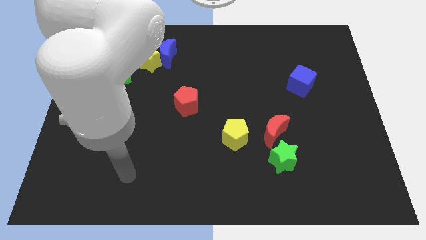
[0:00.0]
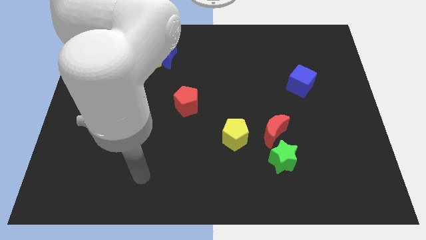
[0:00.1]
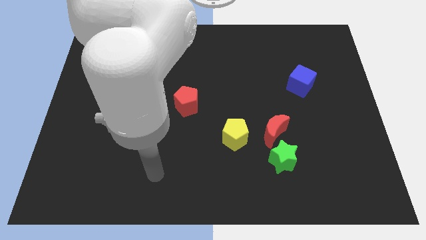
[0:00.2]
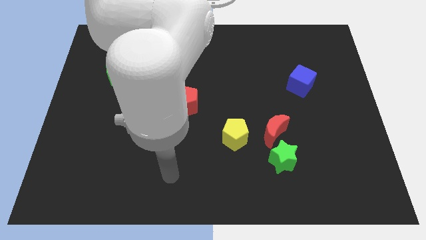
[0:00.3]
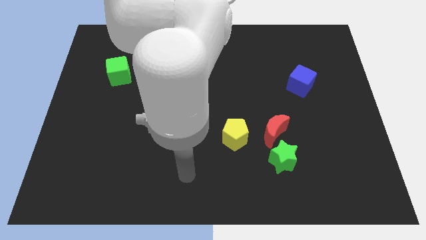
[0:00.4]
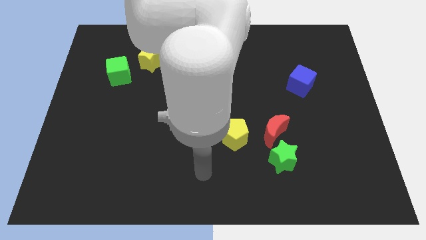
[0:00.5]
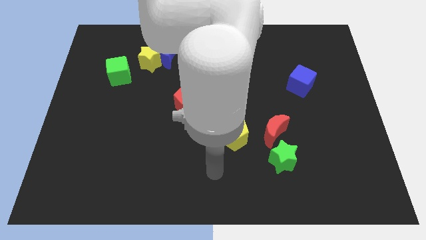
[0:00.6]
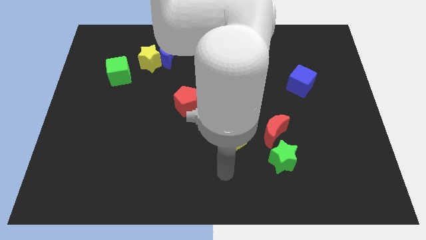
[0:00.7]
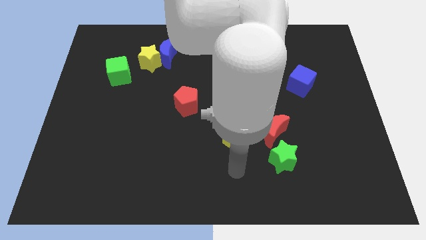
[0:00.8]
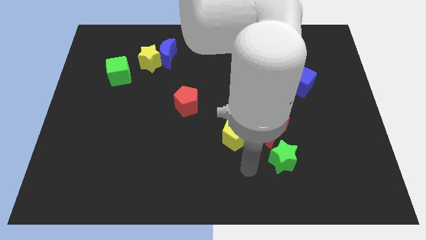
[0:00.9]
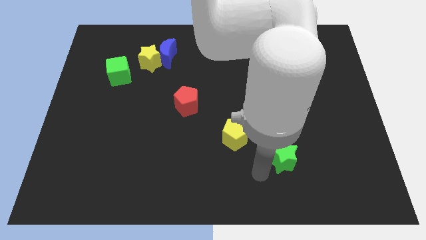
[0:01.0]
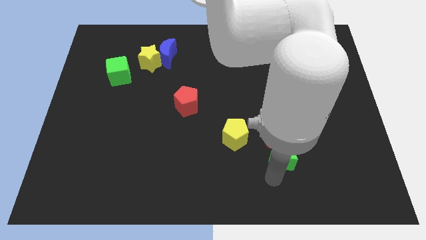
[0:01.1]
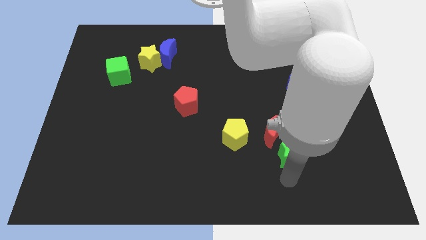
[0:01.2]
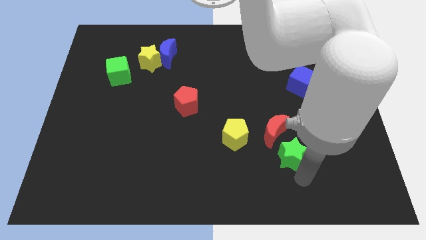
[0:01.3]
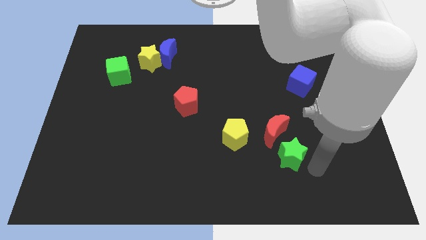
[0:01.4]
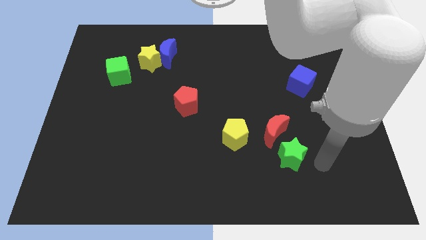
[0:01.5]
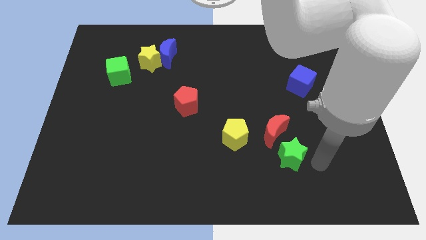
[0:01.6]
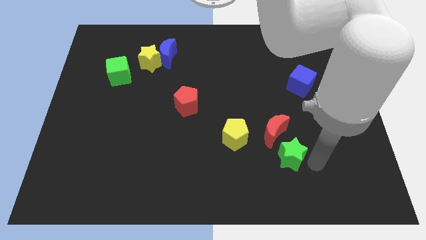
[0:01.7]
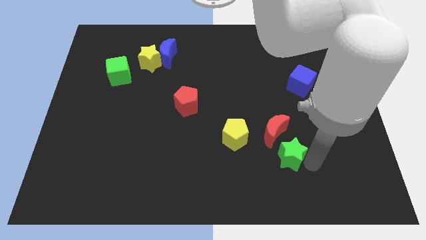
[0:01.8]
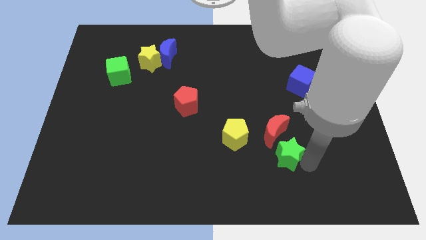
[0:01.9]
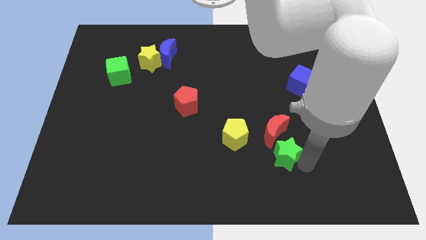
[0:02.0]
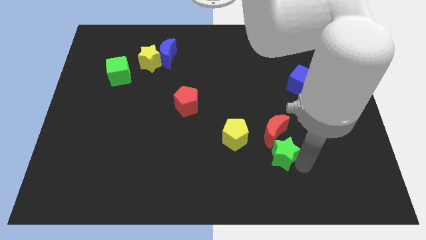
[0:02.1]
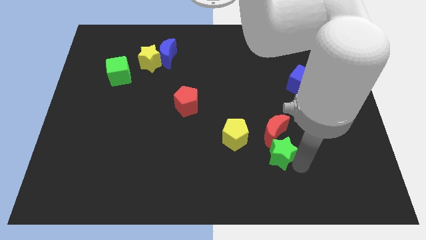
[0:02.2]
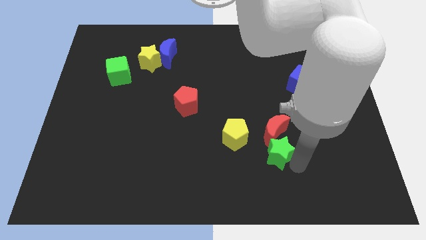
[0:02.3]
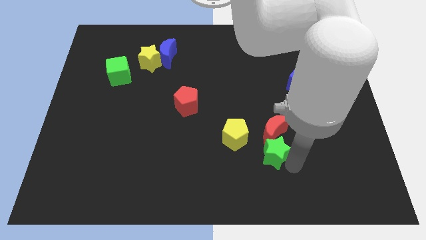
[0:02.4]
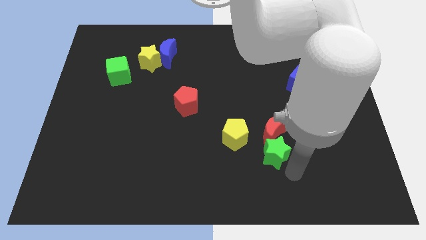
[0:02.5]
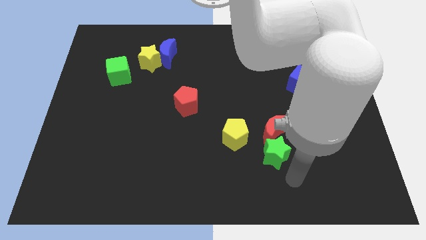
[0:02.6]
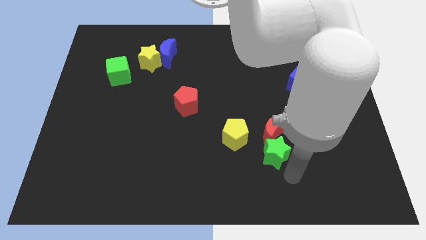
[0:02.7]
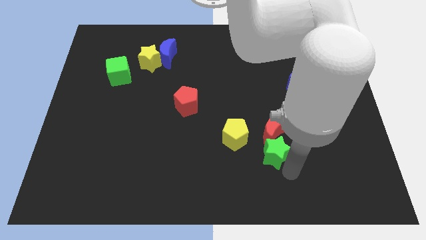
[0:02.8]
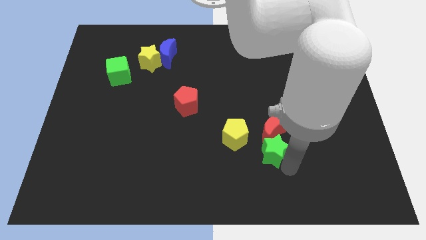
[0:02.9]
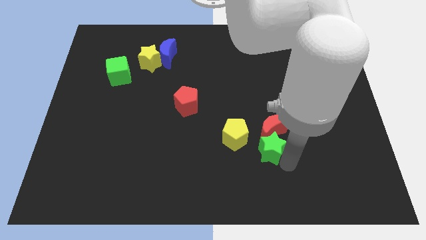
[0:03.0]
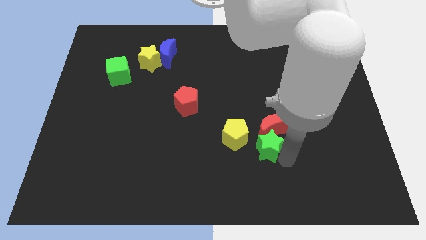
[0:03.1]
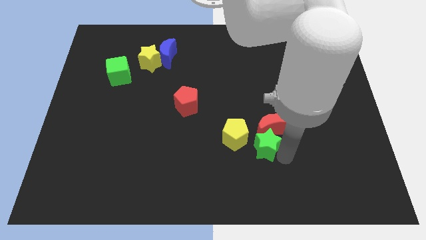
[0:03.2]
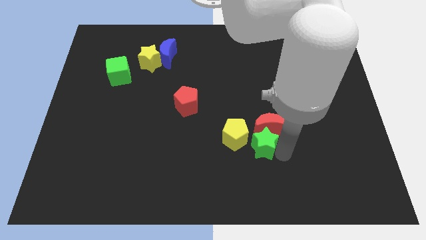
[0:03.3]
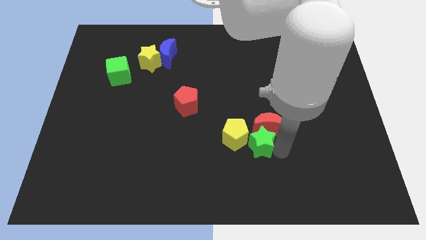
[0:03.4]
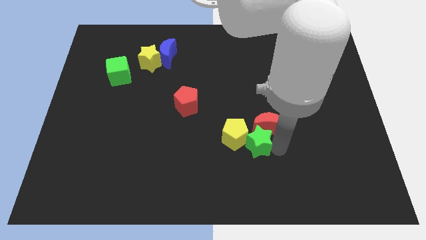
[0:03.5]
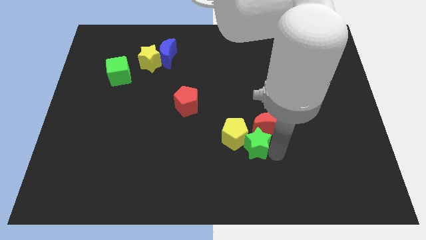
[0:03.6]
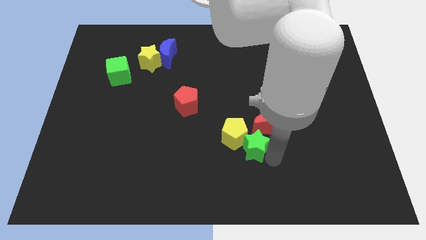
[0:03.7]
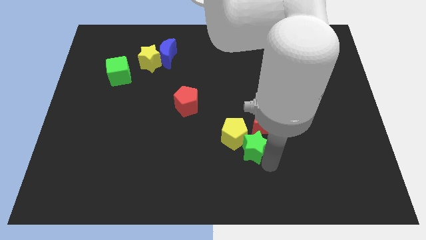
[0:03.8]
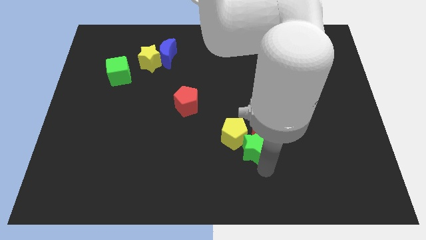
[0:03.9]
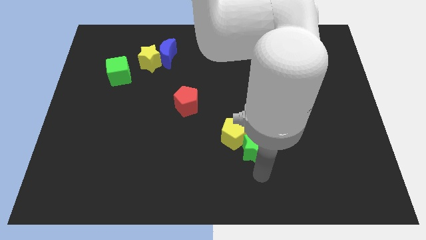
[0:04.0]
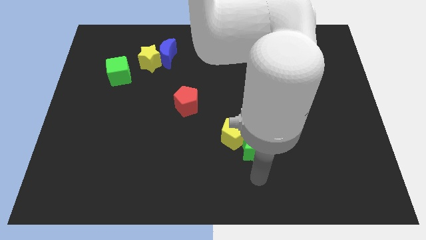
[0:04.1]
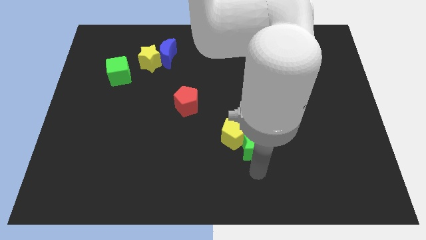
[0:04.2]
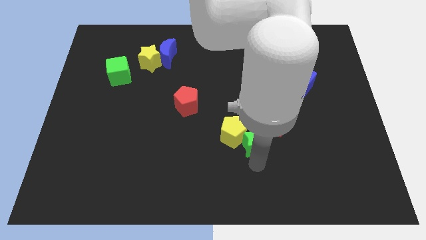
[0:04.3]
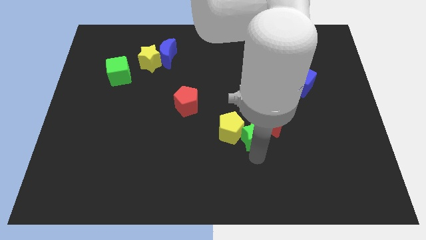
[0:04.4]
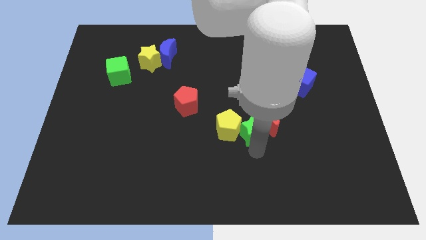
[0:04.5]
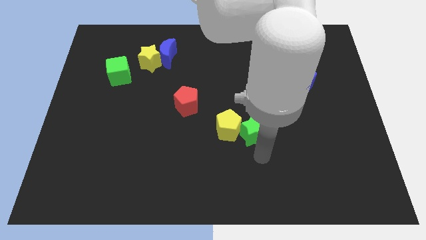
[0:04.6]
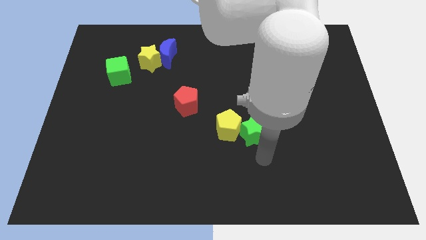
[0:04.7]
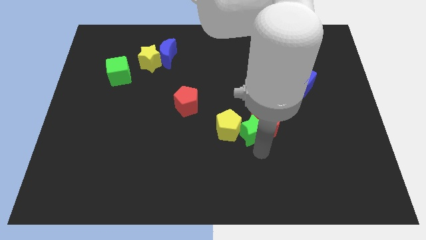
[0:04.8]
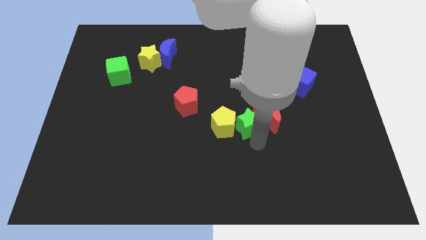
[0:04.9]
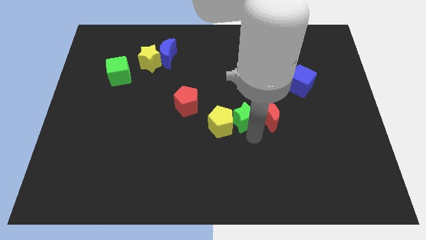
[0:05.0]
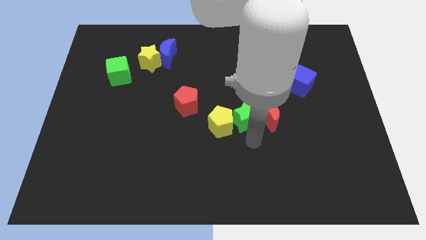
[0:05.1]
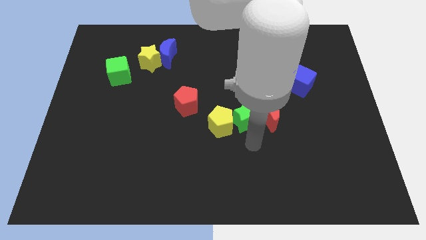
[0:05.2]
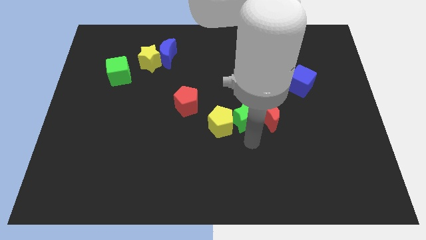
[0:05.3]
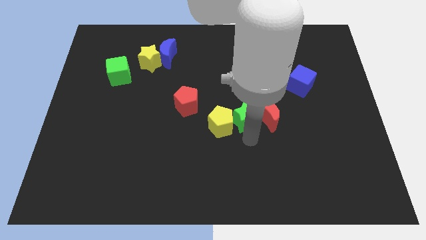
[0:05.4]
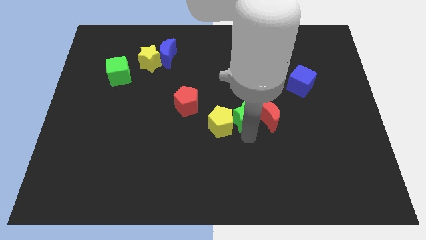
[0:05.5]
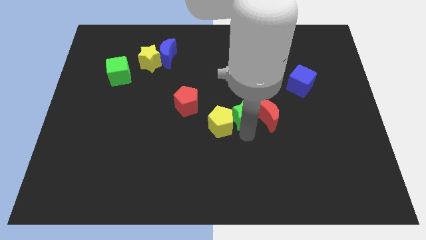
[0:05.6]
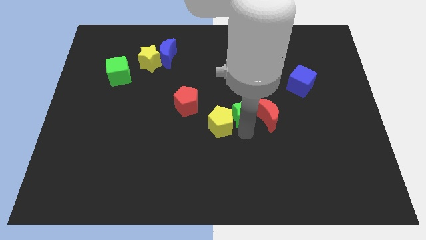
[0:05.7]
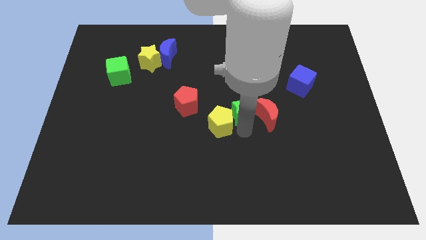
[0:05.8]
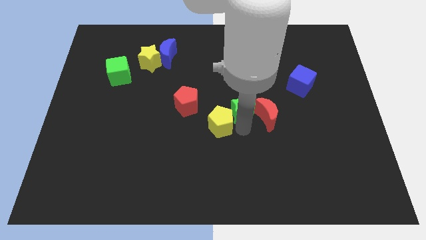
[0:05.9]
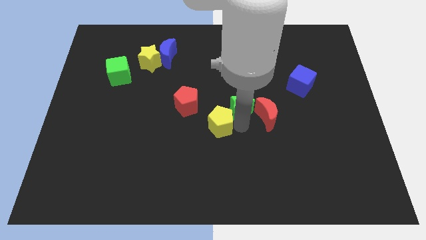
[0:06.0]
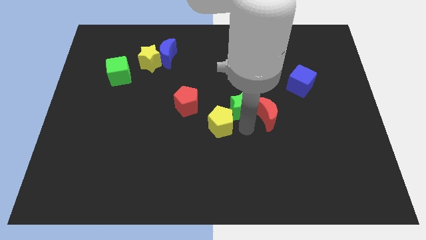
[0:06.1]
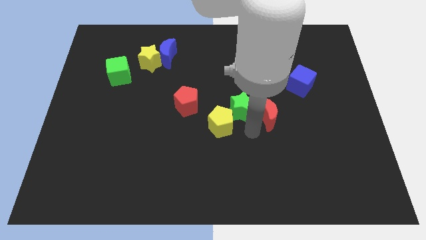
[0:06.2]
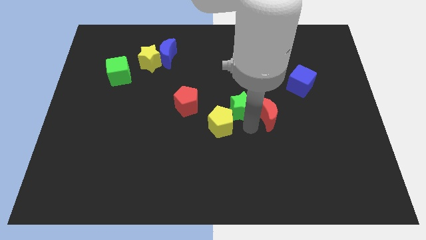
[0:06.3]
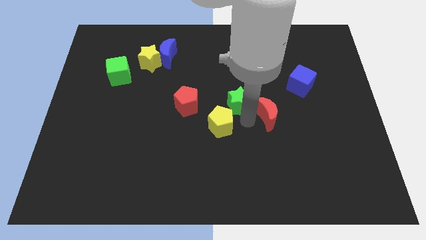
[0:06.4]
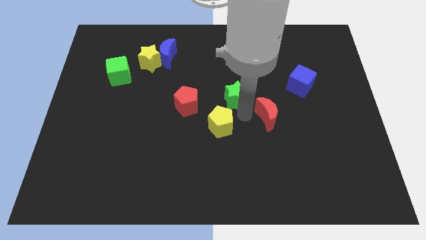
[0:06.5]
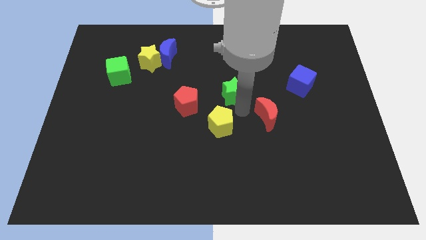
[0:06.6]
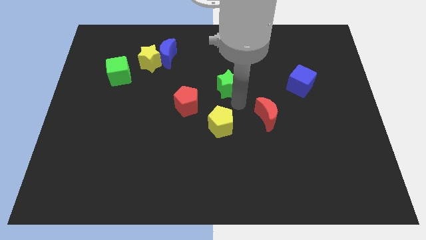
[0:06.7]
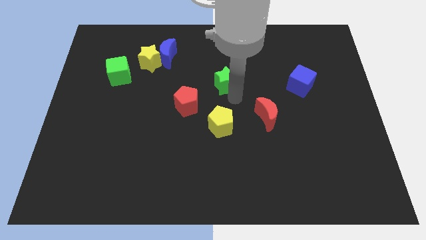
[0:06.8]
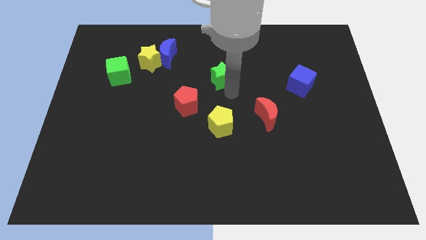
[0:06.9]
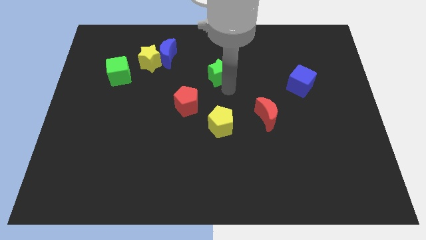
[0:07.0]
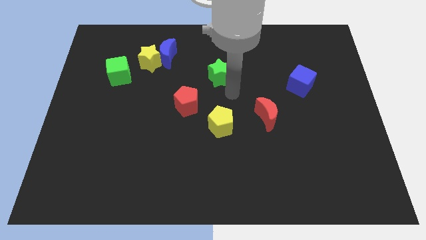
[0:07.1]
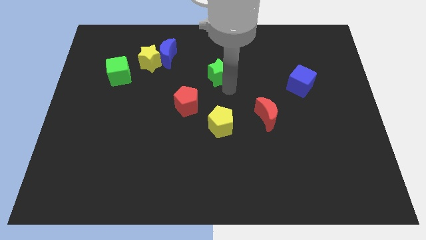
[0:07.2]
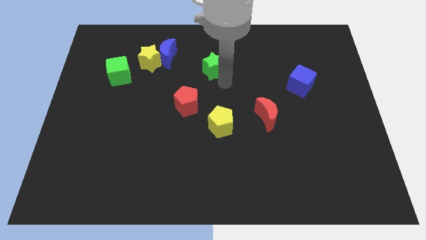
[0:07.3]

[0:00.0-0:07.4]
move the green star just right of the blue moon
